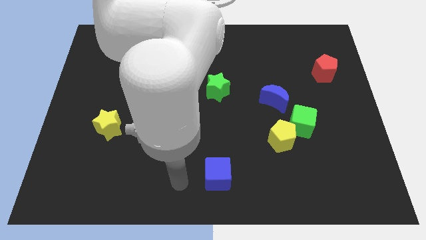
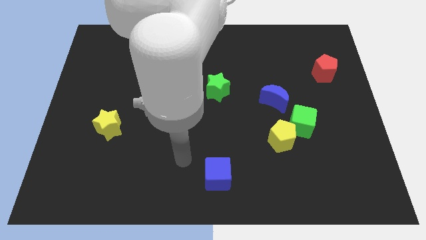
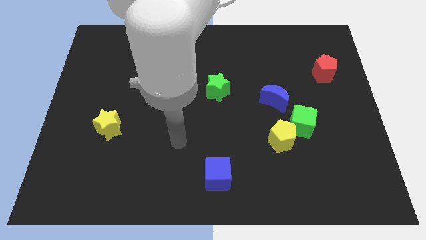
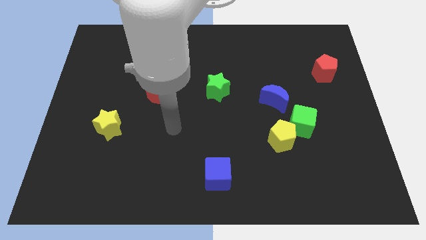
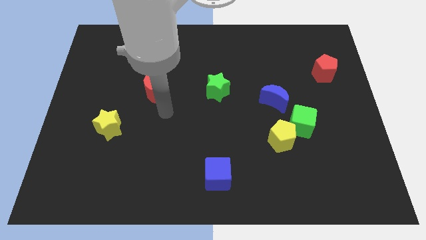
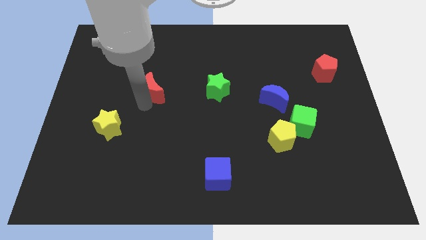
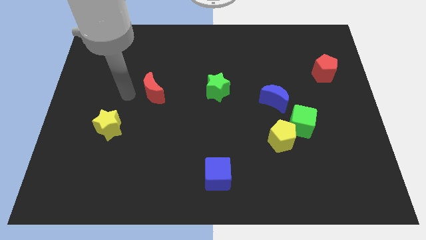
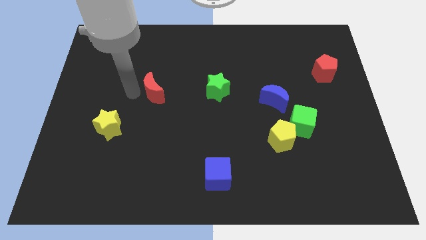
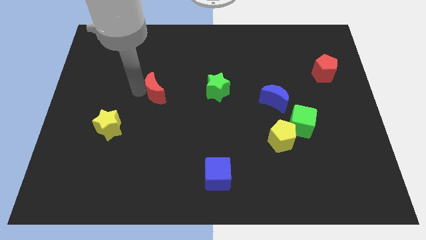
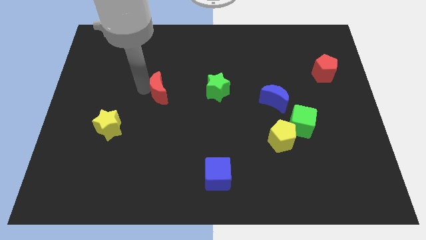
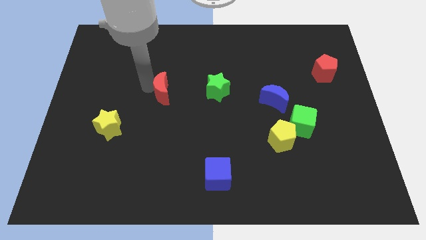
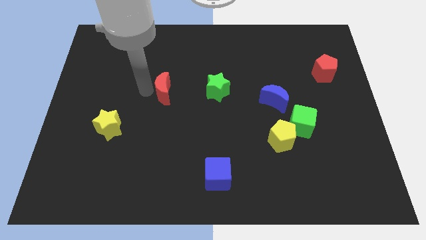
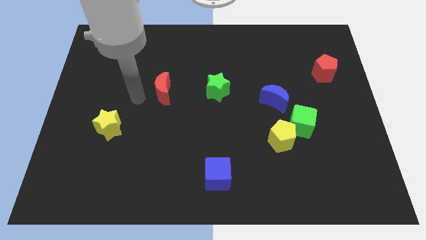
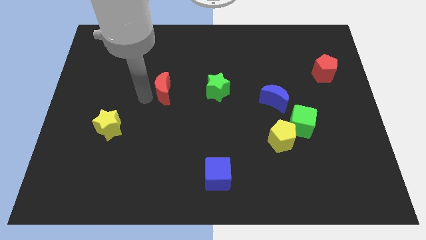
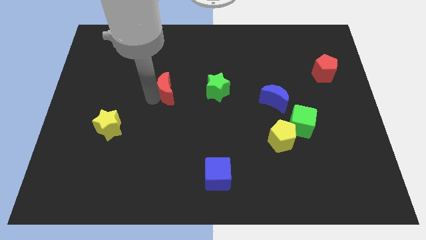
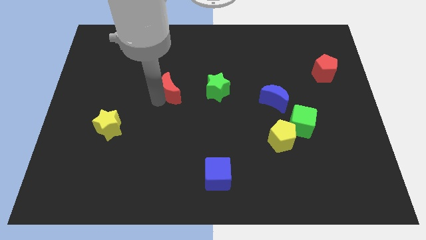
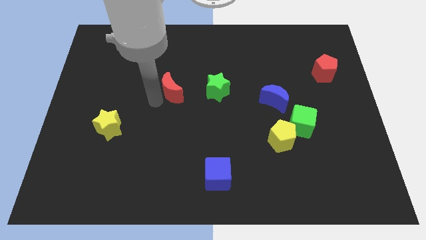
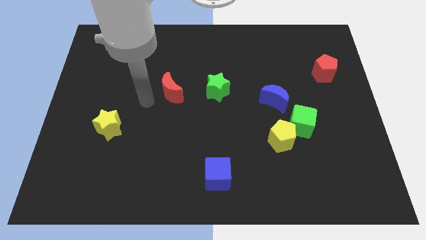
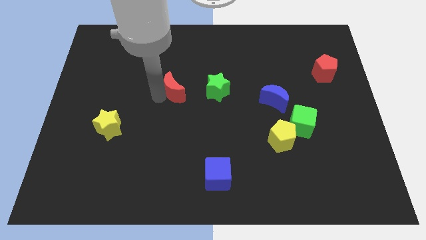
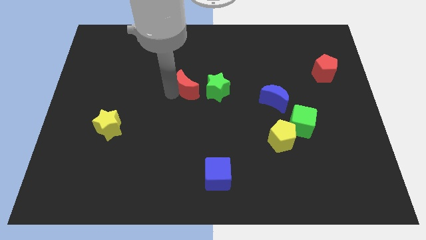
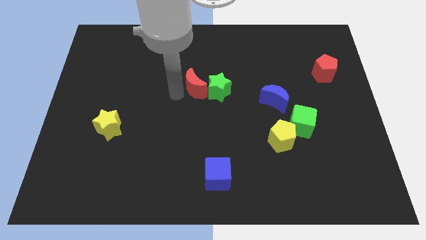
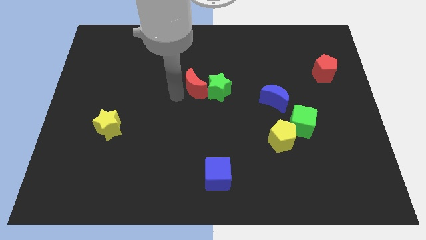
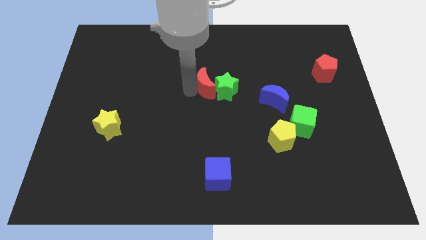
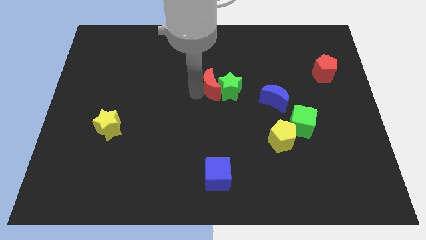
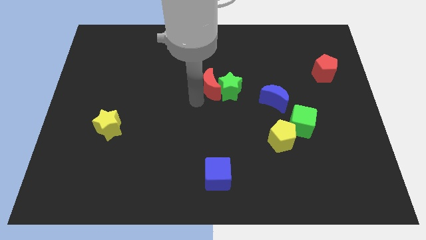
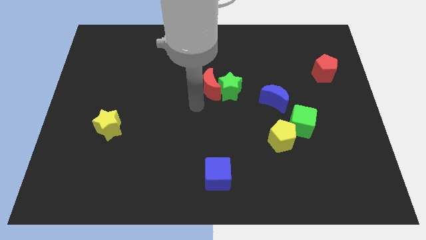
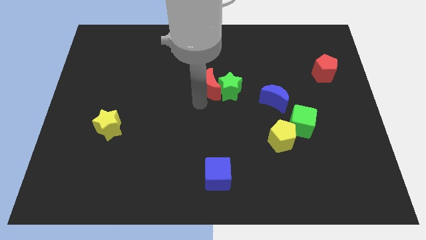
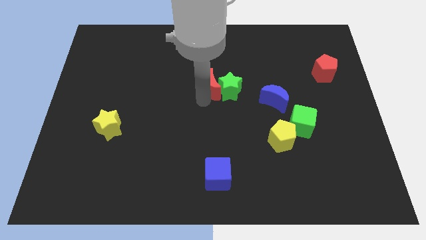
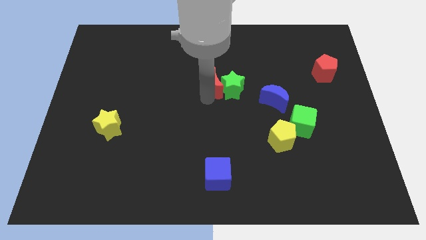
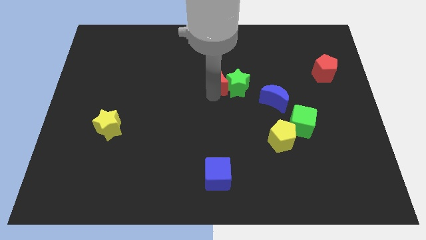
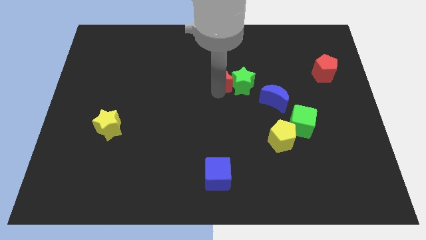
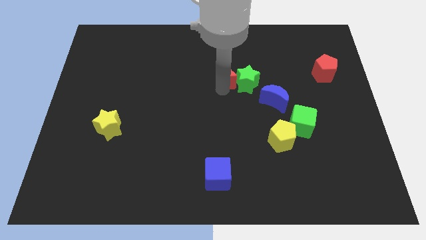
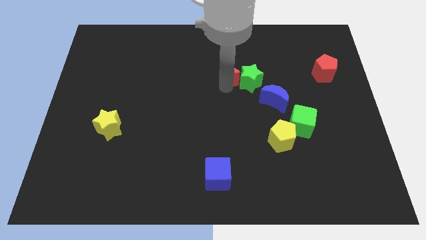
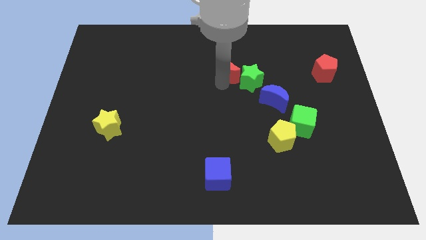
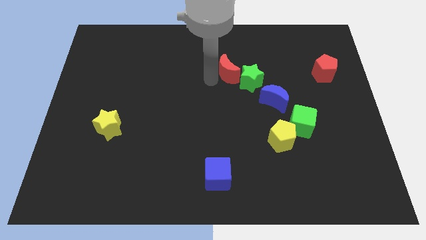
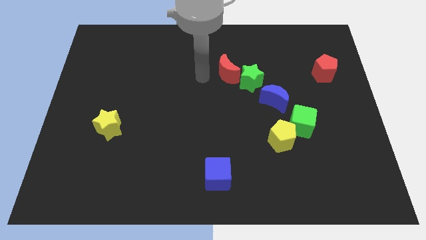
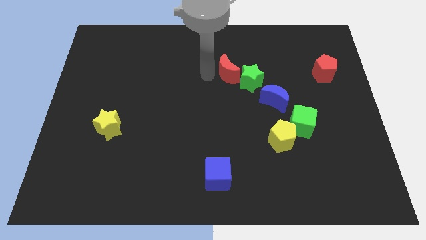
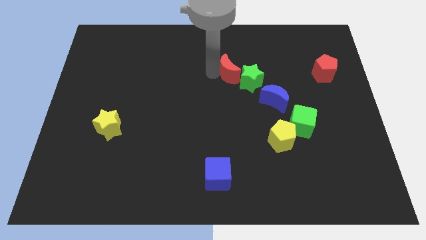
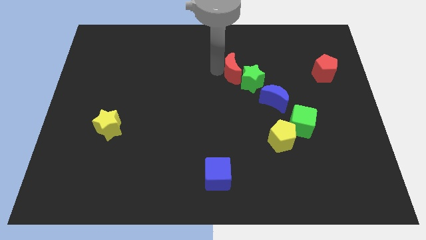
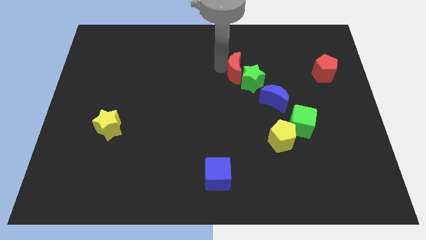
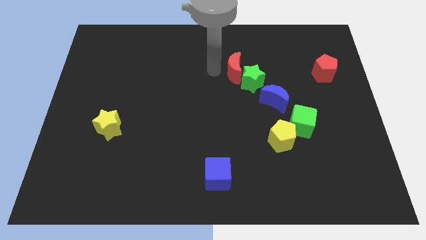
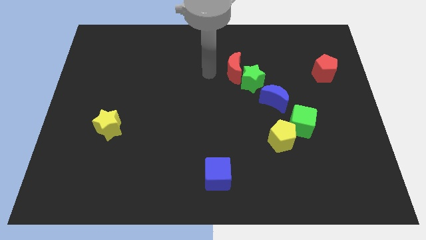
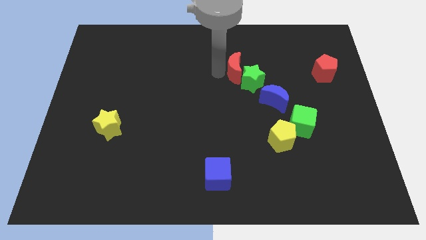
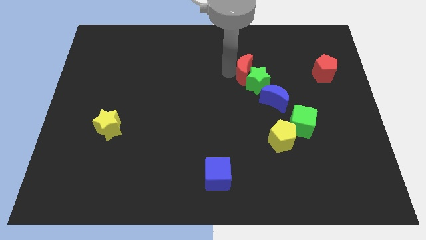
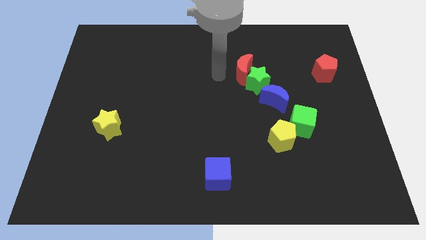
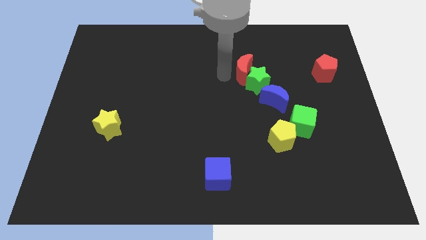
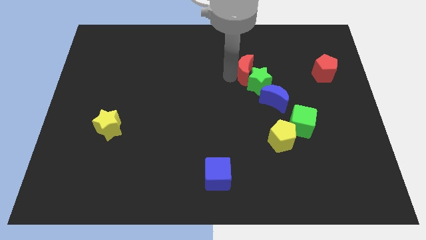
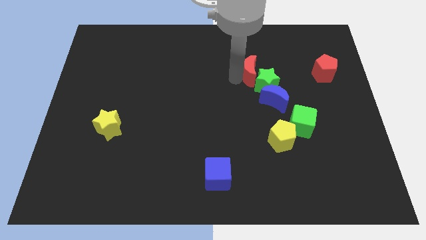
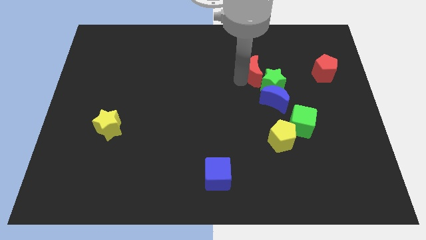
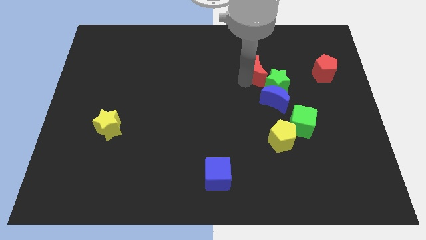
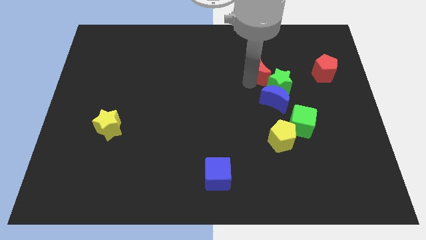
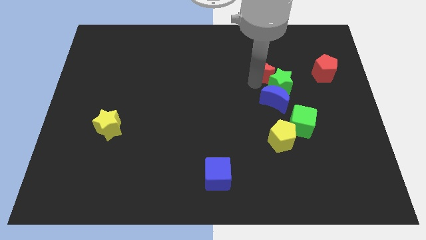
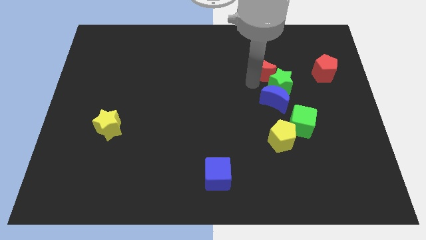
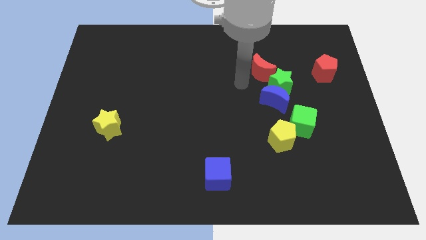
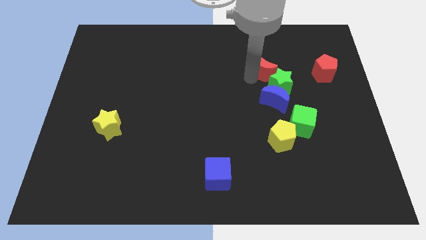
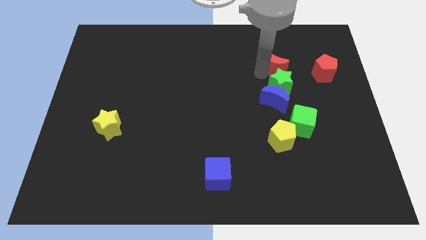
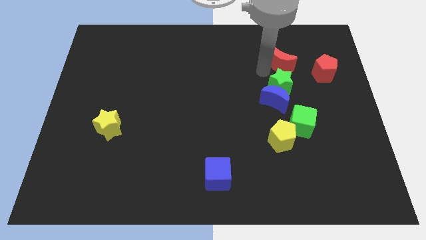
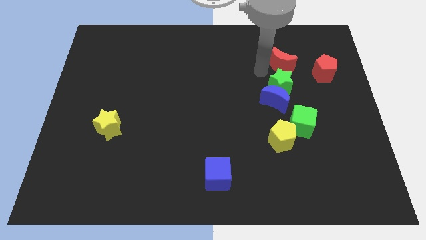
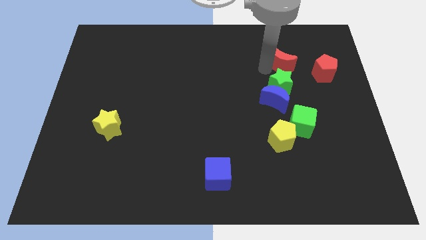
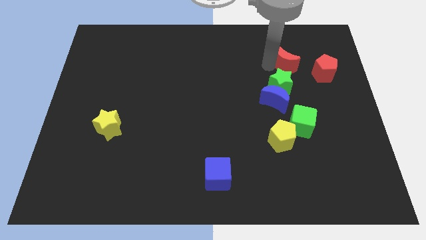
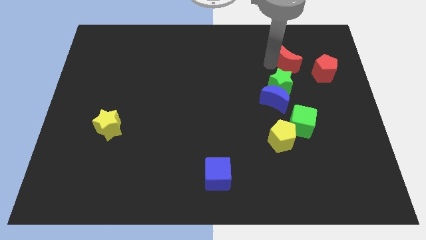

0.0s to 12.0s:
move the red moon to the top left side of the red pentagon

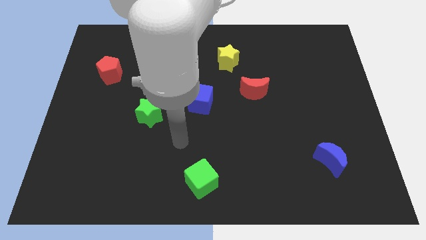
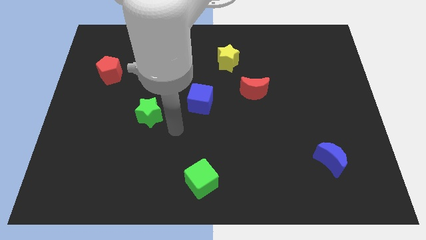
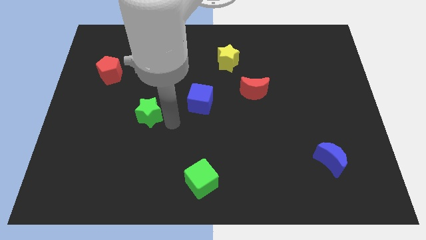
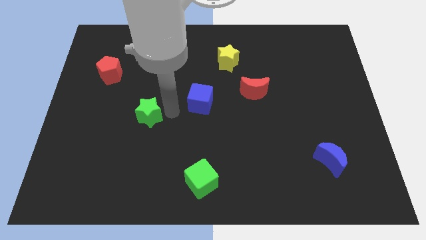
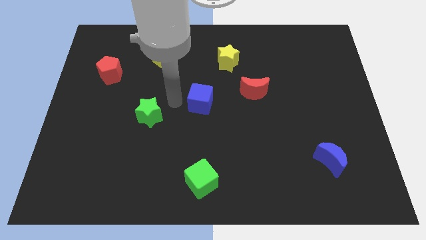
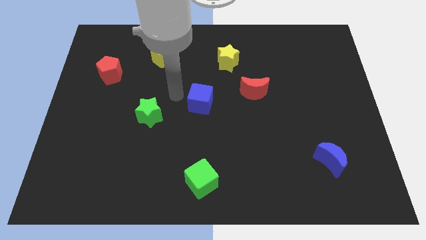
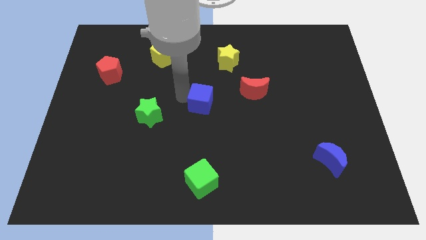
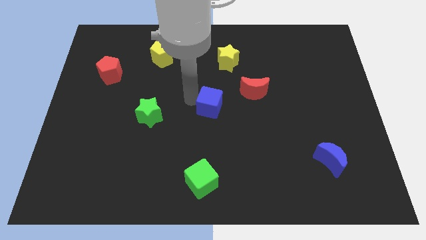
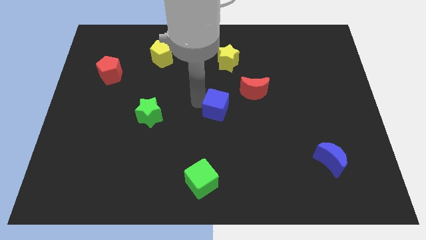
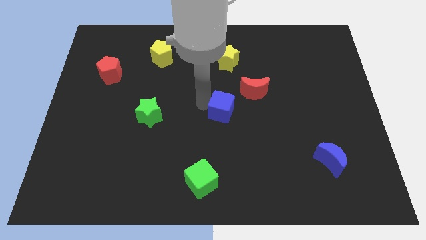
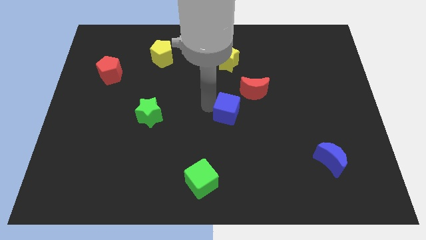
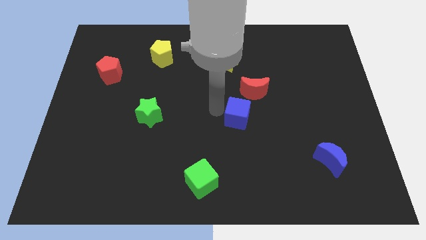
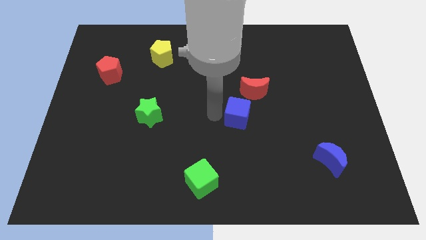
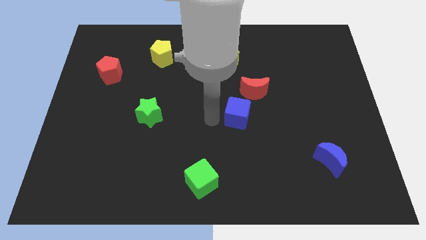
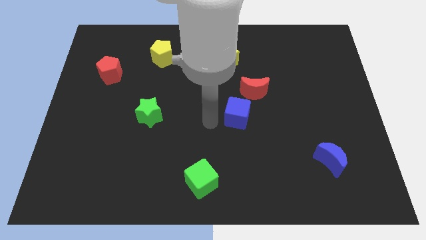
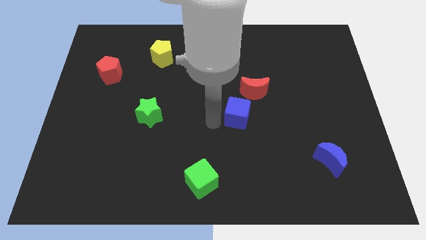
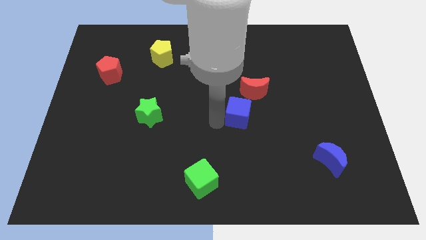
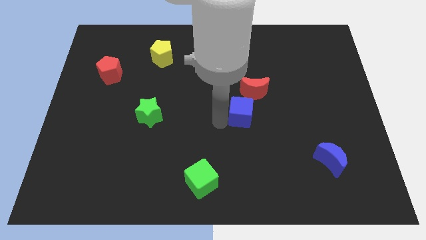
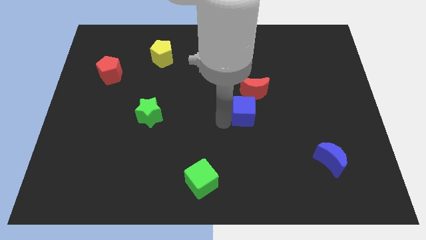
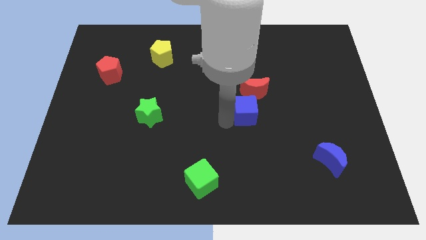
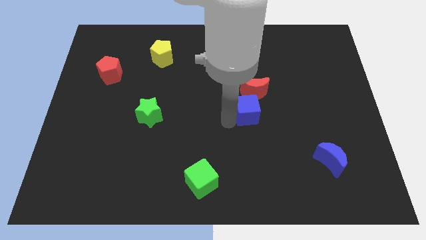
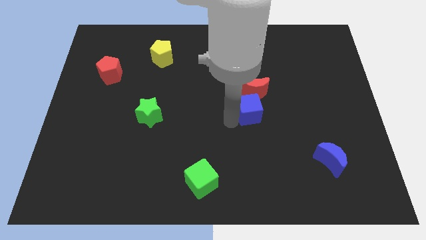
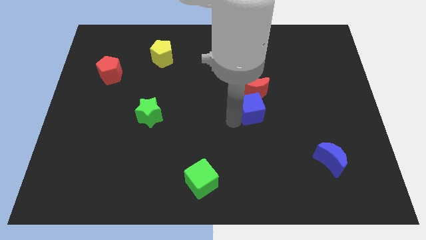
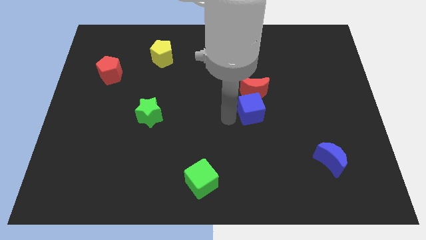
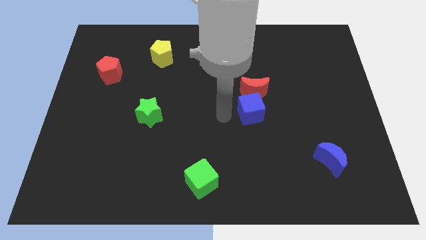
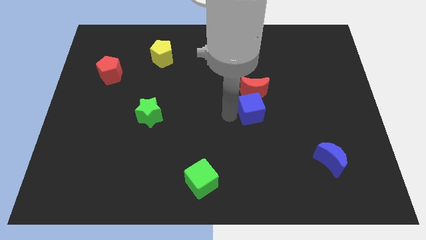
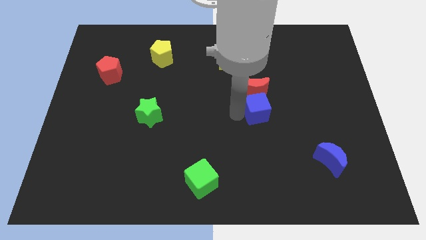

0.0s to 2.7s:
put the blue cube to the bottom right side of the red moon
